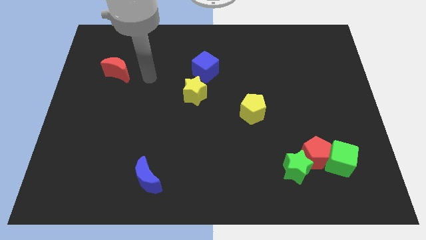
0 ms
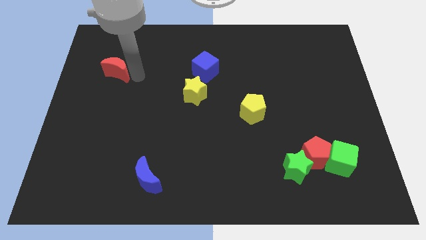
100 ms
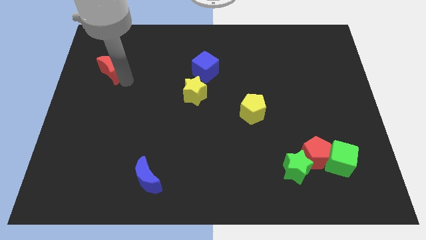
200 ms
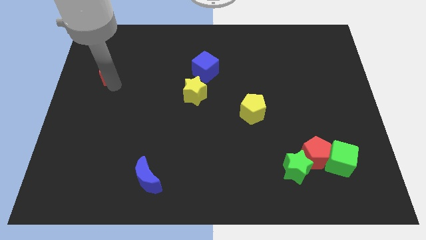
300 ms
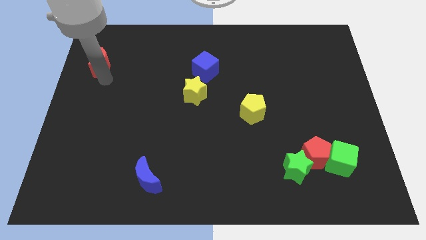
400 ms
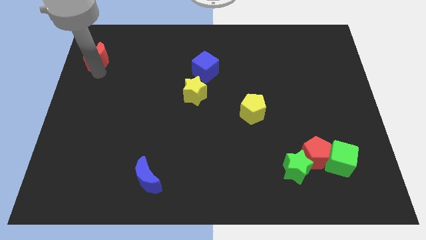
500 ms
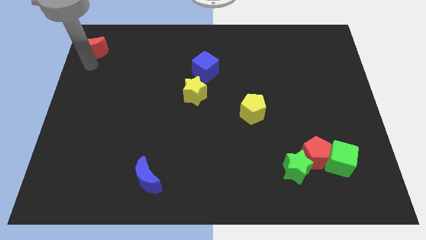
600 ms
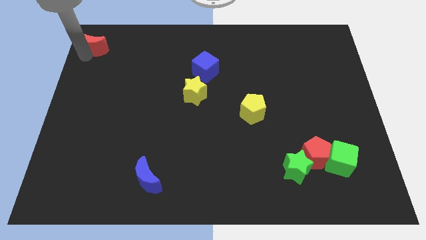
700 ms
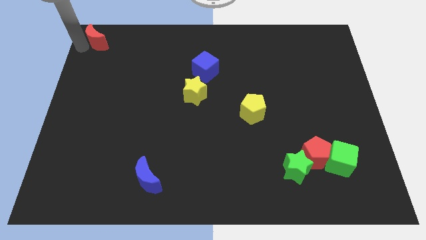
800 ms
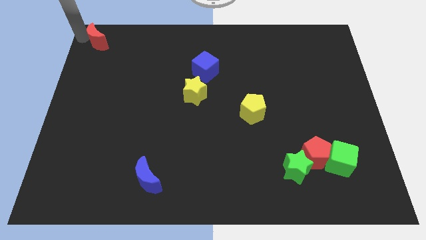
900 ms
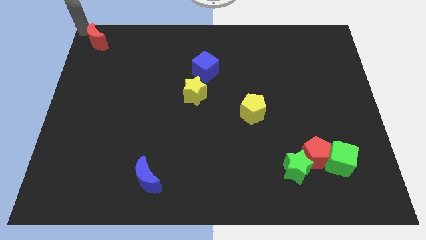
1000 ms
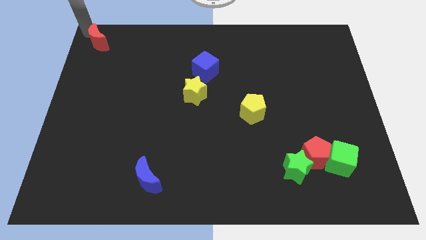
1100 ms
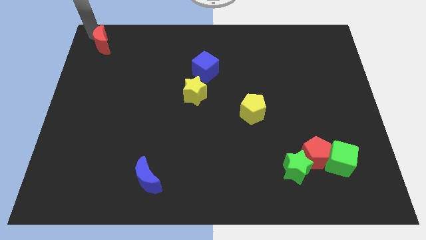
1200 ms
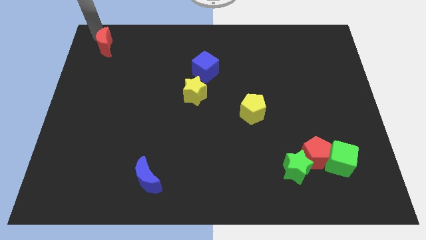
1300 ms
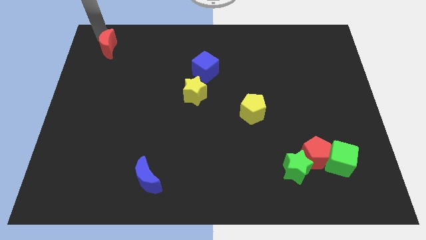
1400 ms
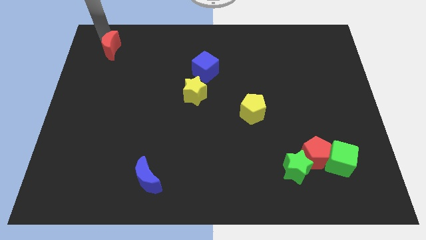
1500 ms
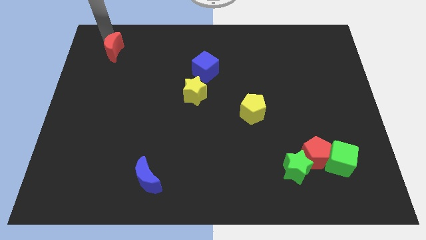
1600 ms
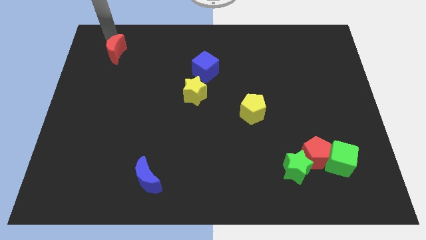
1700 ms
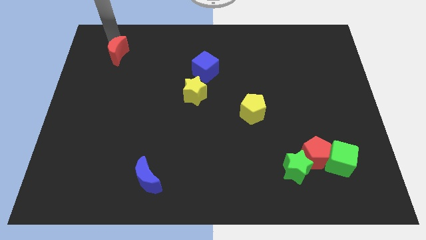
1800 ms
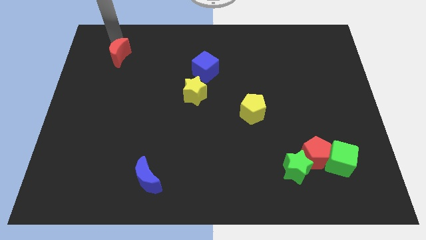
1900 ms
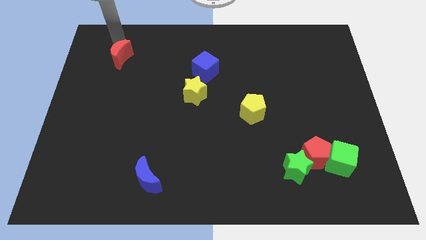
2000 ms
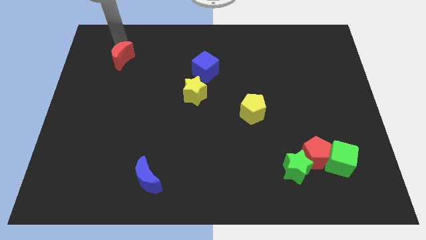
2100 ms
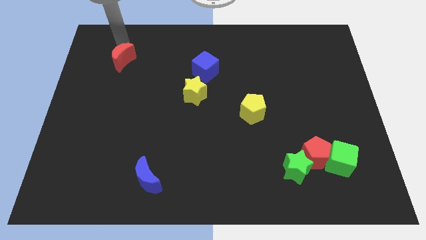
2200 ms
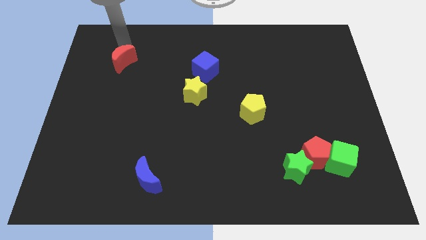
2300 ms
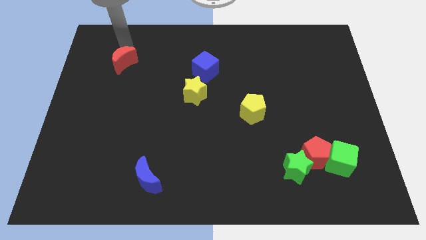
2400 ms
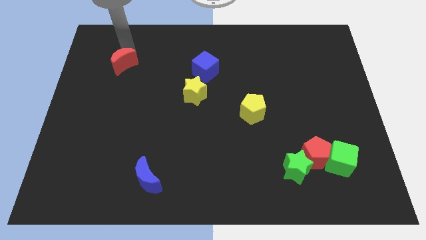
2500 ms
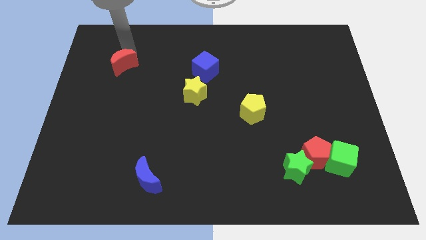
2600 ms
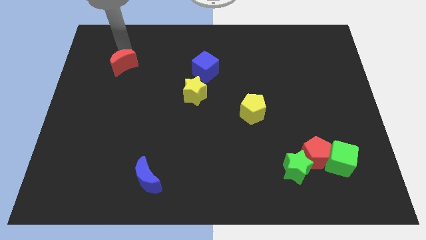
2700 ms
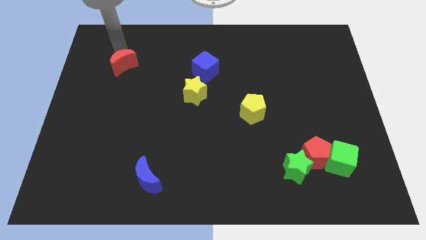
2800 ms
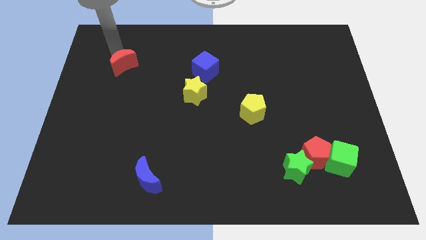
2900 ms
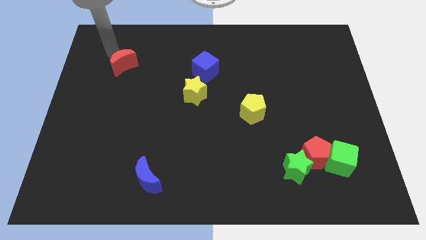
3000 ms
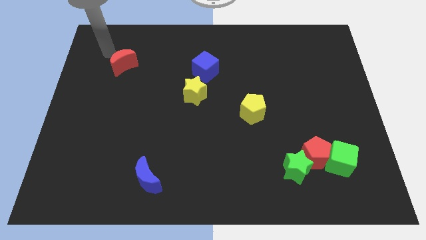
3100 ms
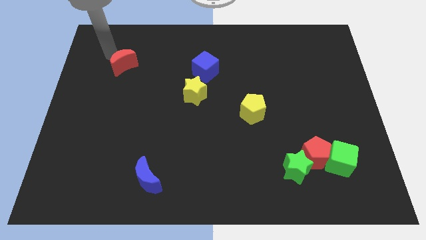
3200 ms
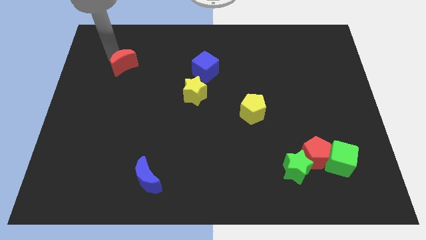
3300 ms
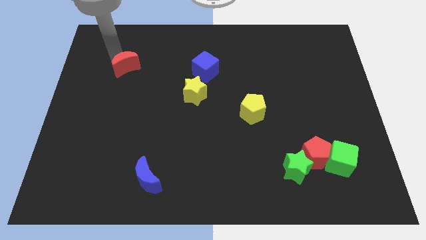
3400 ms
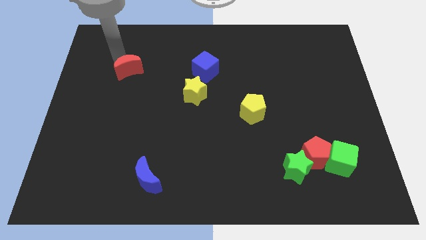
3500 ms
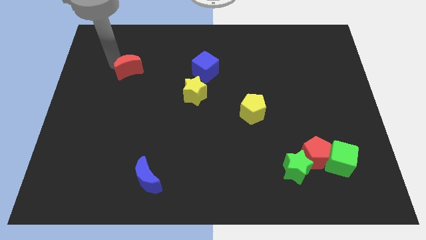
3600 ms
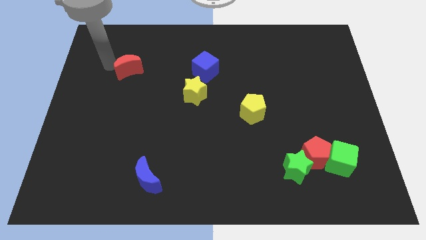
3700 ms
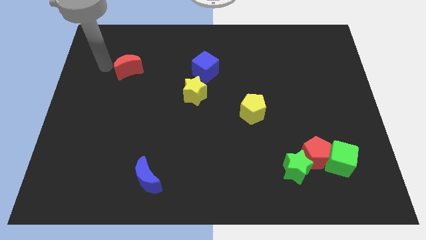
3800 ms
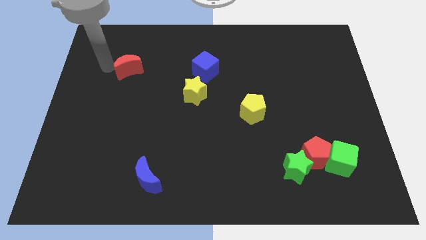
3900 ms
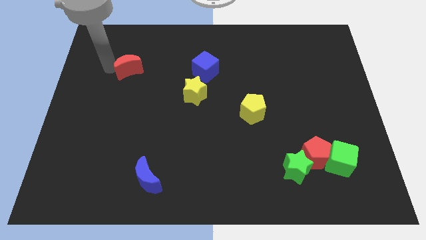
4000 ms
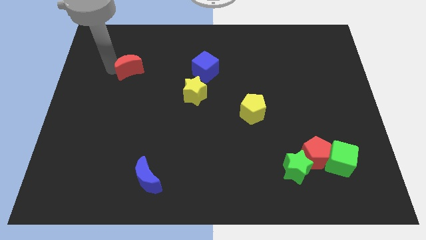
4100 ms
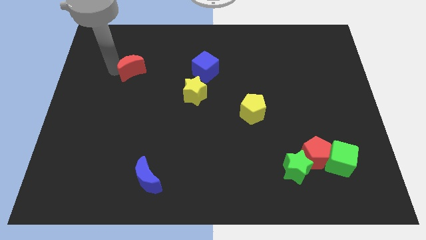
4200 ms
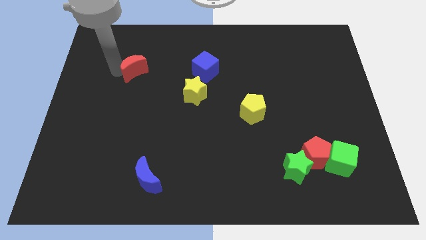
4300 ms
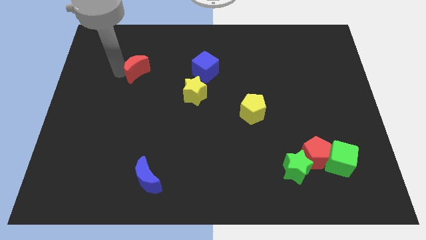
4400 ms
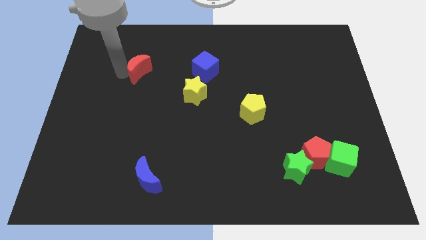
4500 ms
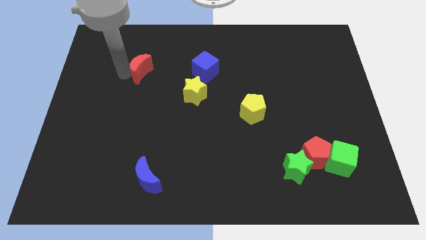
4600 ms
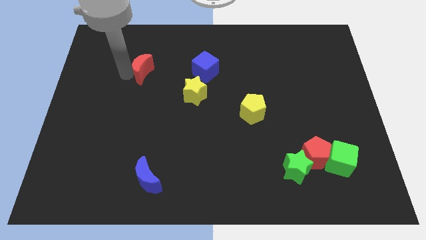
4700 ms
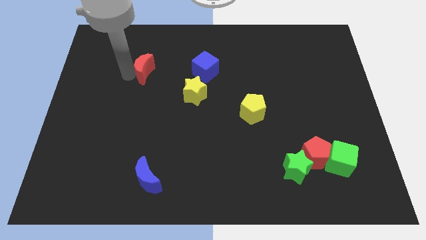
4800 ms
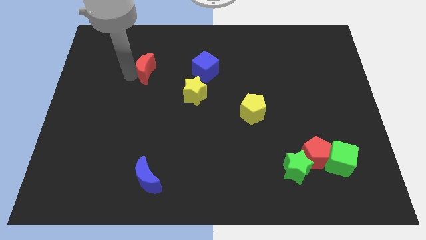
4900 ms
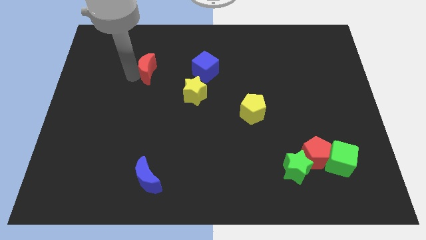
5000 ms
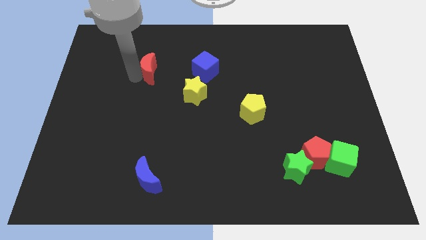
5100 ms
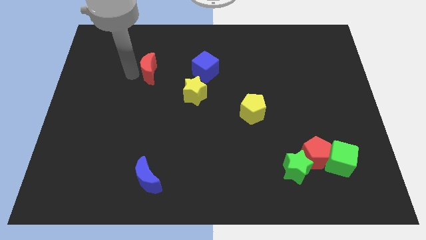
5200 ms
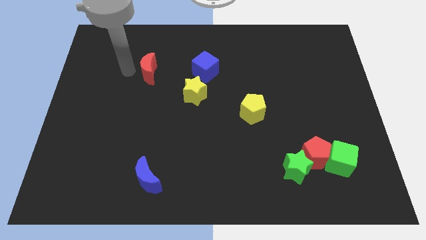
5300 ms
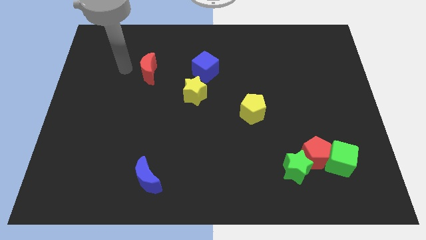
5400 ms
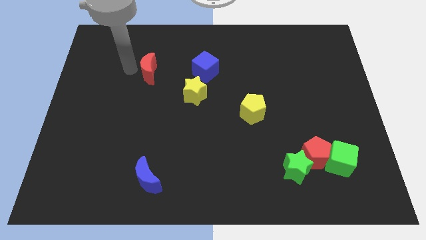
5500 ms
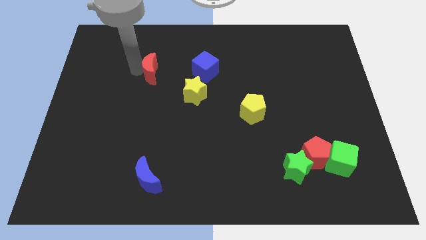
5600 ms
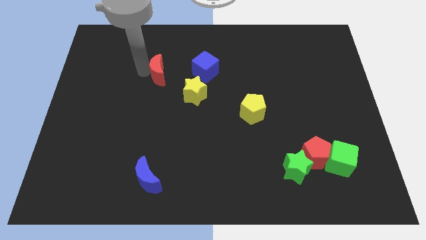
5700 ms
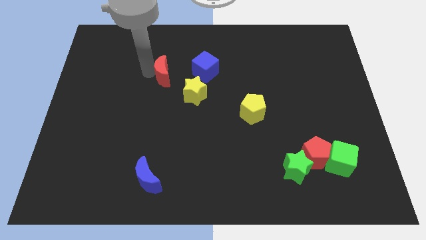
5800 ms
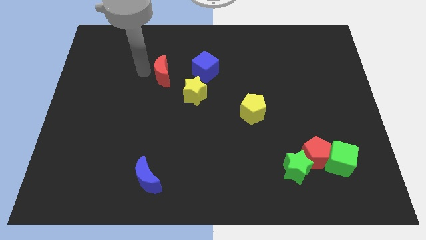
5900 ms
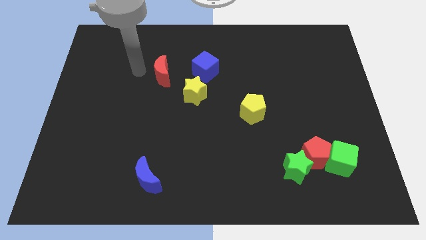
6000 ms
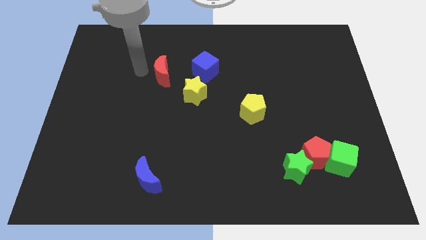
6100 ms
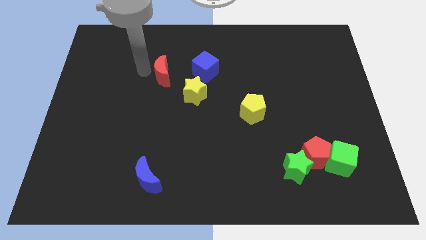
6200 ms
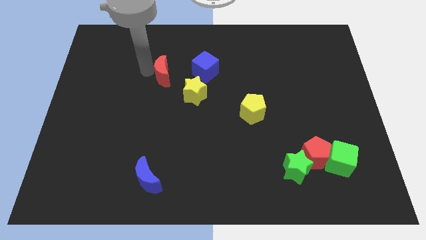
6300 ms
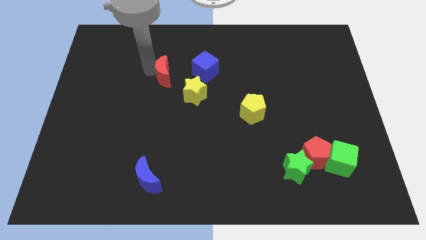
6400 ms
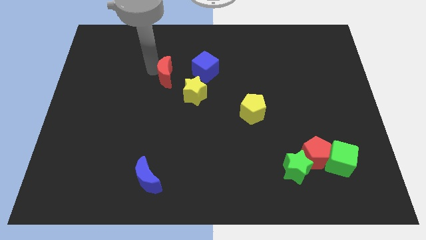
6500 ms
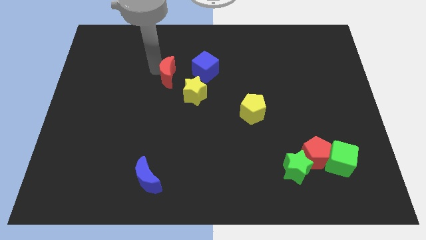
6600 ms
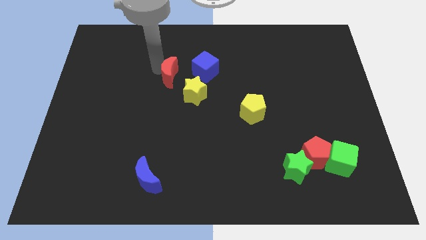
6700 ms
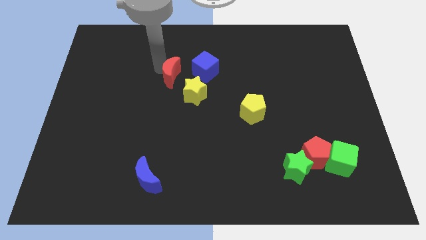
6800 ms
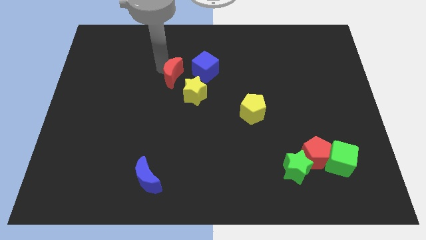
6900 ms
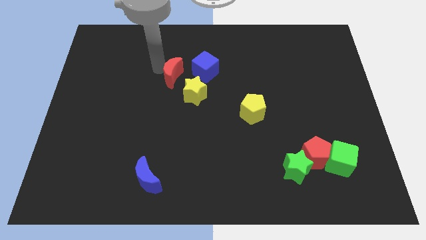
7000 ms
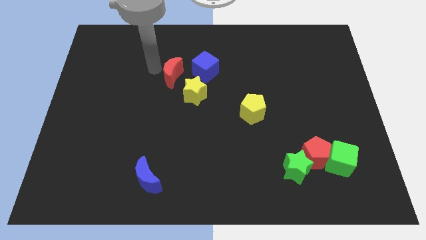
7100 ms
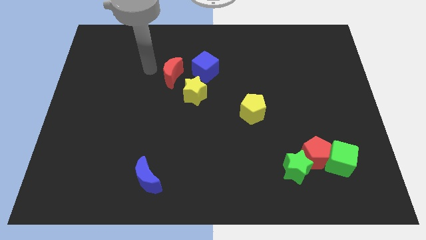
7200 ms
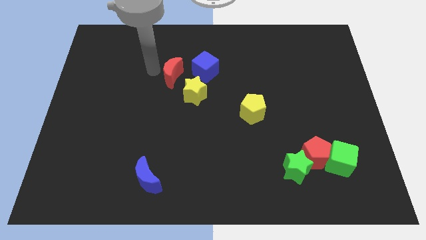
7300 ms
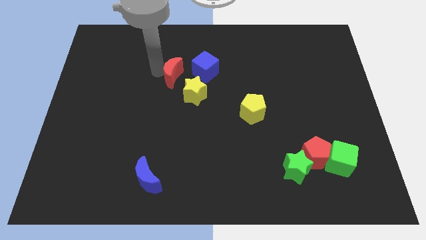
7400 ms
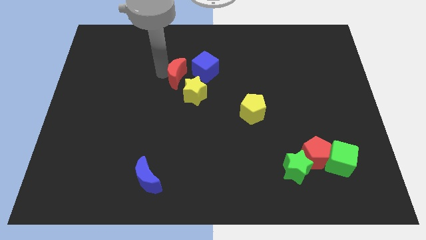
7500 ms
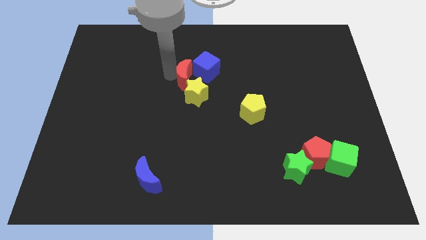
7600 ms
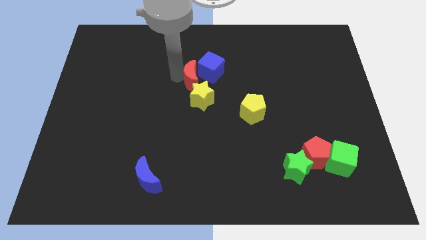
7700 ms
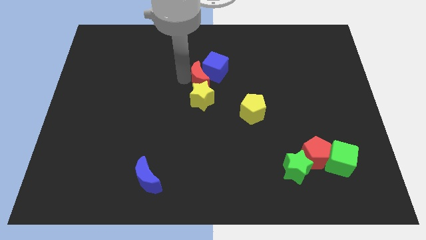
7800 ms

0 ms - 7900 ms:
slide the red moon right
